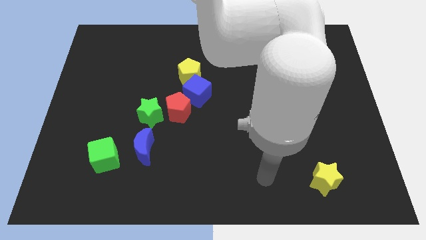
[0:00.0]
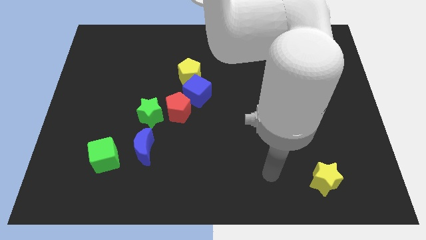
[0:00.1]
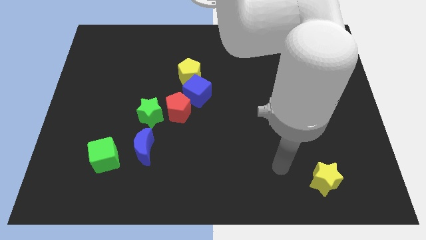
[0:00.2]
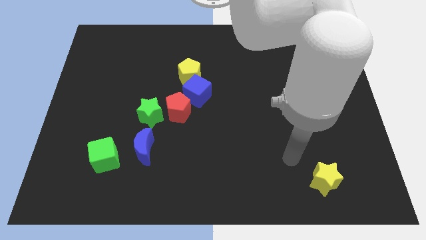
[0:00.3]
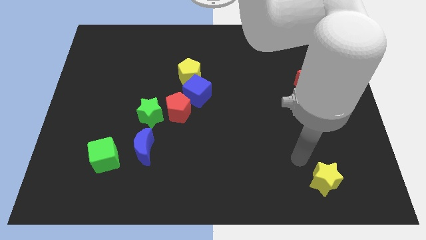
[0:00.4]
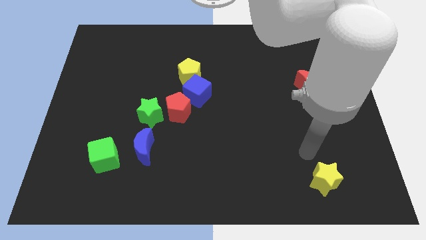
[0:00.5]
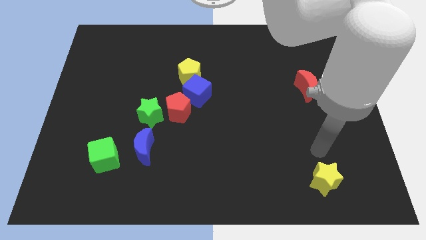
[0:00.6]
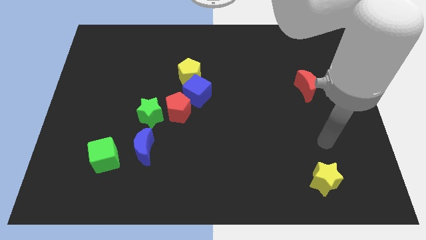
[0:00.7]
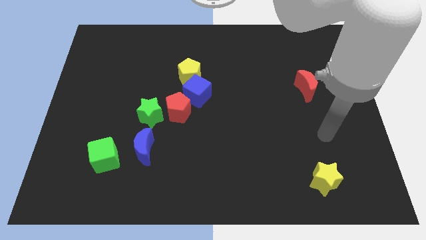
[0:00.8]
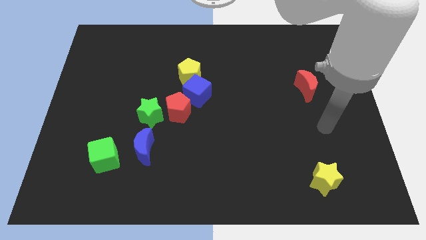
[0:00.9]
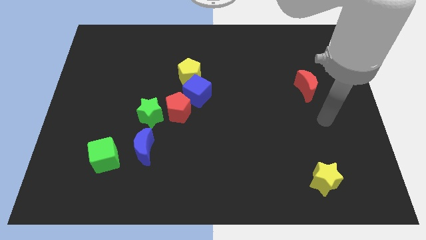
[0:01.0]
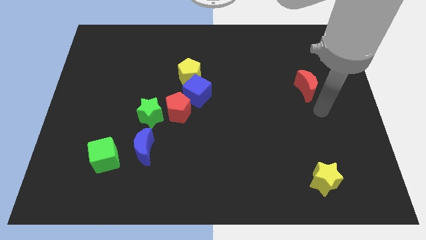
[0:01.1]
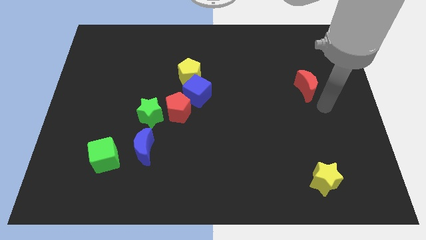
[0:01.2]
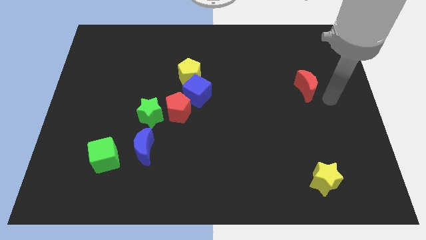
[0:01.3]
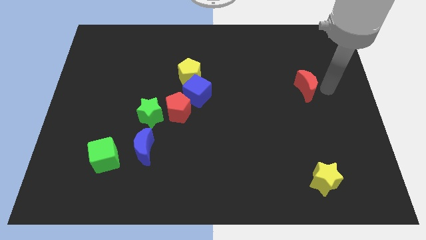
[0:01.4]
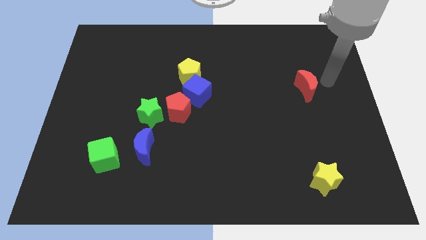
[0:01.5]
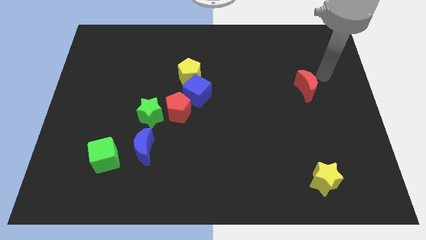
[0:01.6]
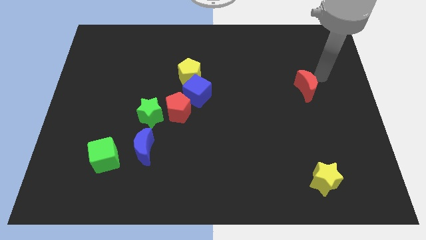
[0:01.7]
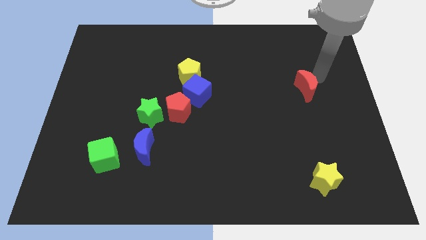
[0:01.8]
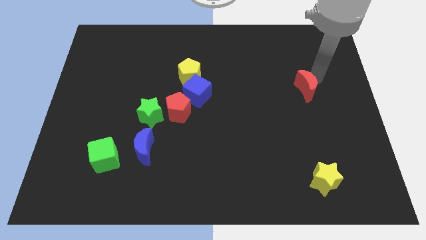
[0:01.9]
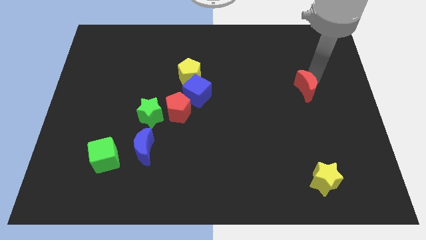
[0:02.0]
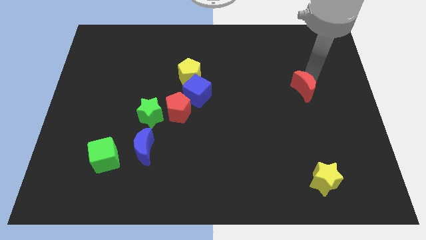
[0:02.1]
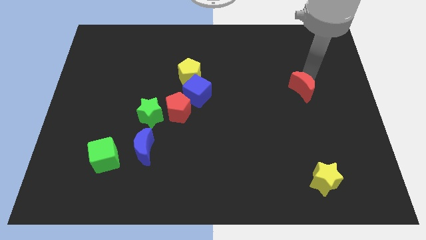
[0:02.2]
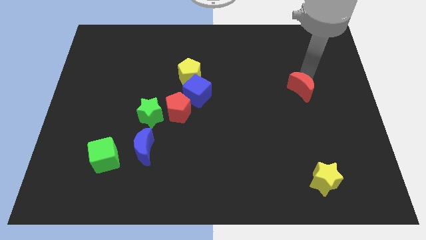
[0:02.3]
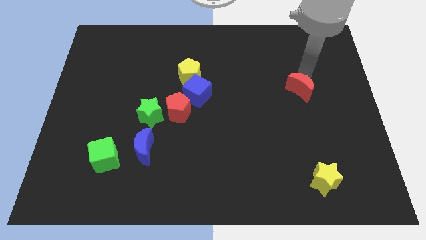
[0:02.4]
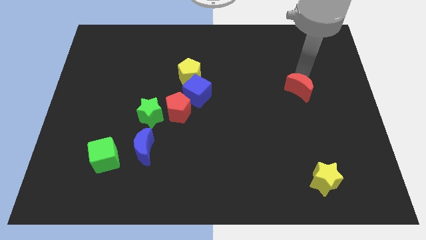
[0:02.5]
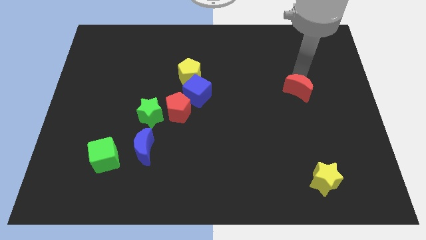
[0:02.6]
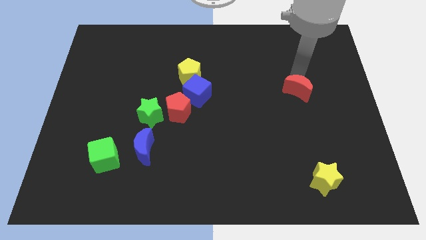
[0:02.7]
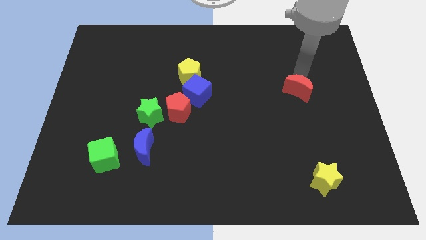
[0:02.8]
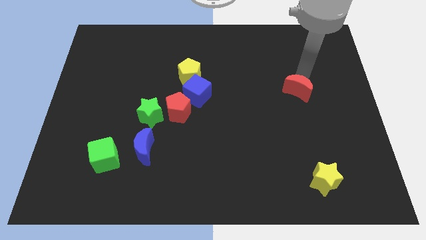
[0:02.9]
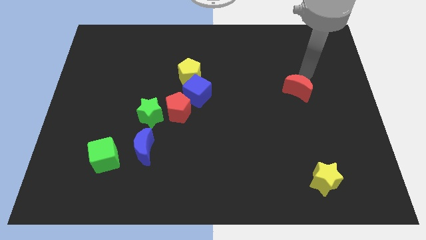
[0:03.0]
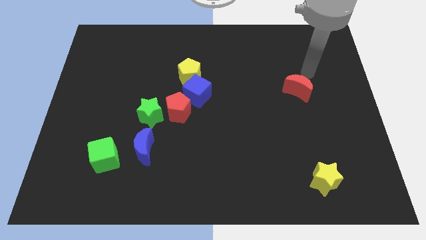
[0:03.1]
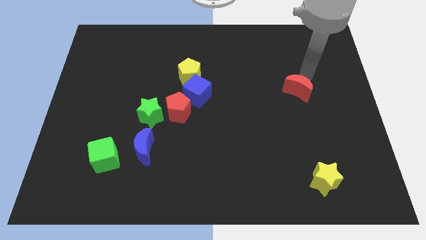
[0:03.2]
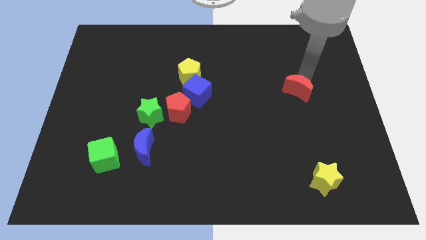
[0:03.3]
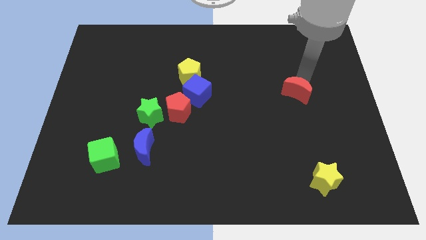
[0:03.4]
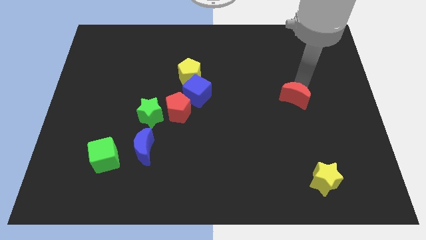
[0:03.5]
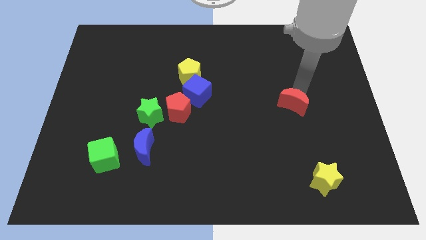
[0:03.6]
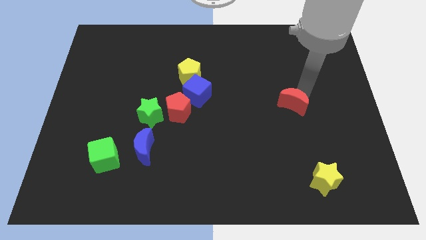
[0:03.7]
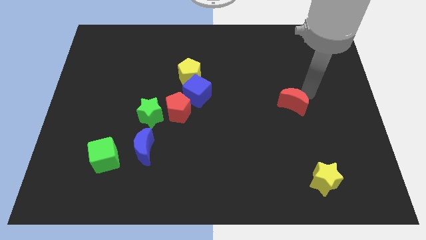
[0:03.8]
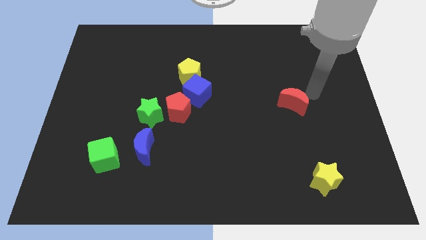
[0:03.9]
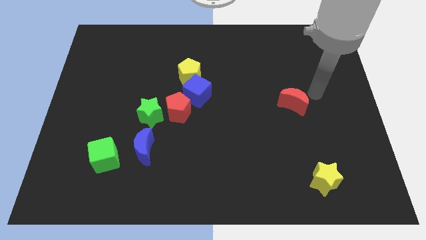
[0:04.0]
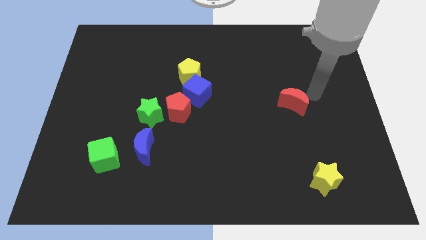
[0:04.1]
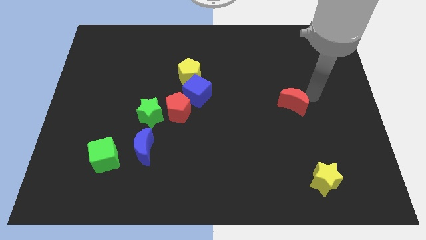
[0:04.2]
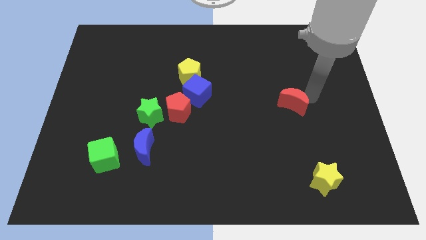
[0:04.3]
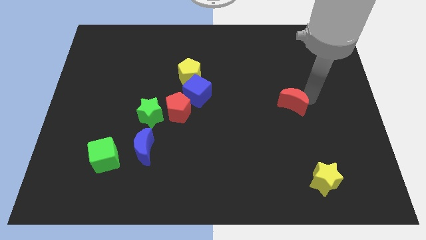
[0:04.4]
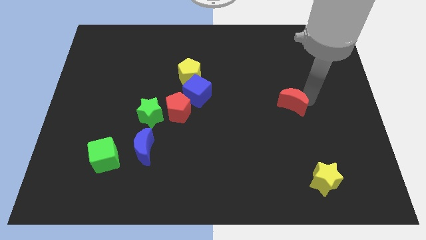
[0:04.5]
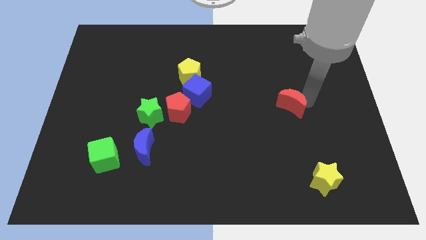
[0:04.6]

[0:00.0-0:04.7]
move the red moon diagonally downwards and left a little bit

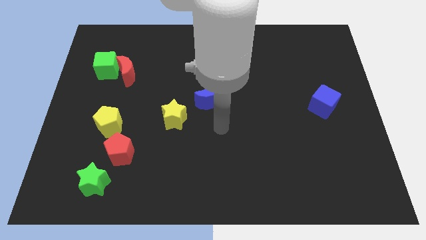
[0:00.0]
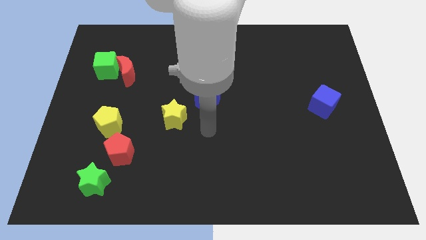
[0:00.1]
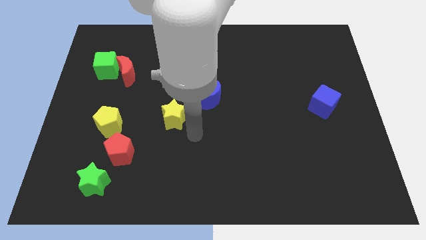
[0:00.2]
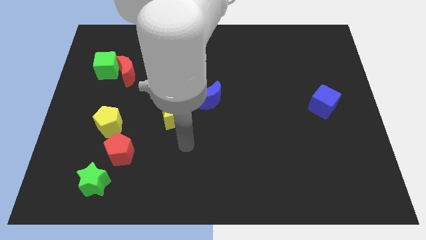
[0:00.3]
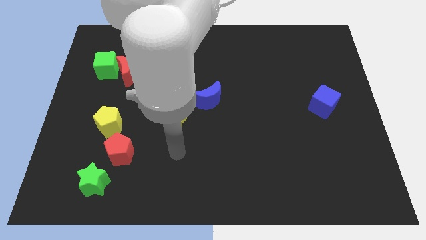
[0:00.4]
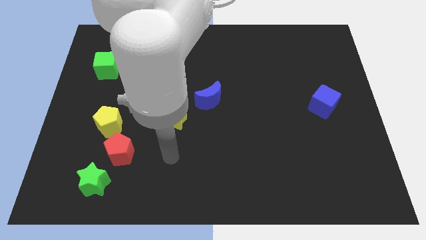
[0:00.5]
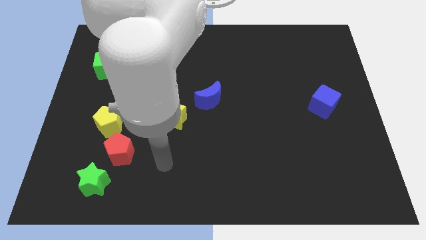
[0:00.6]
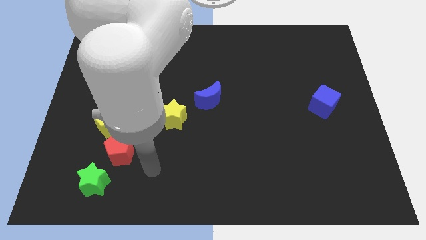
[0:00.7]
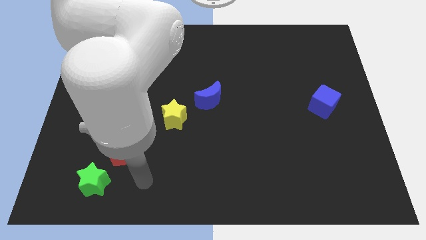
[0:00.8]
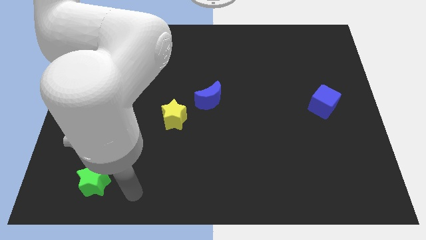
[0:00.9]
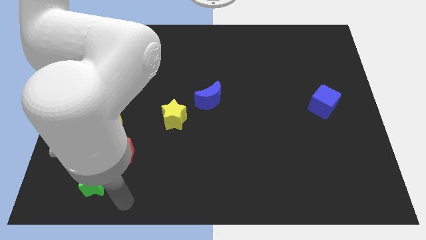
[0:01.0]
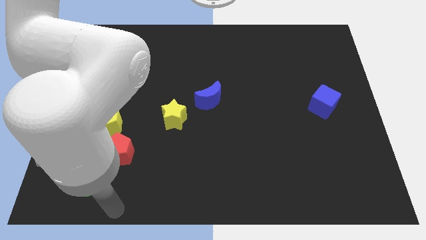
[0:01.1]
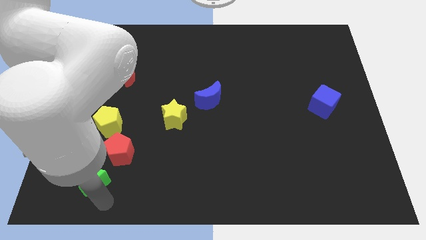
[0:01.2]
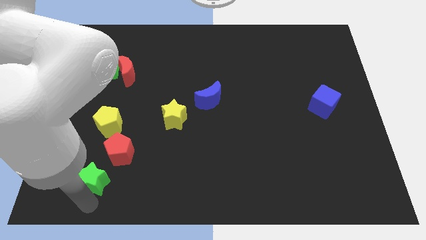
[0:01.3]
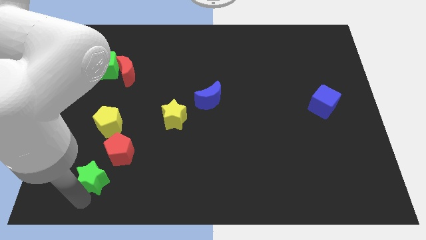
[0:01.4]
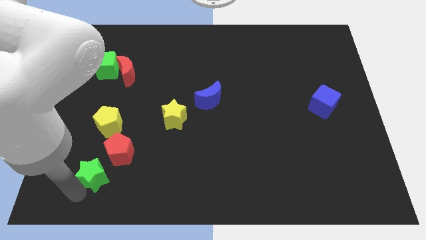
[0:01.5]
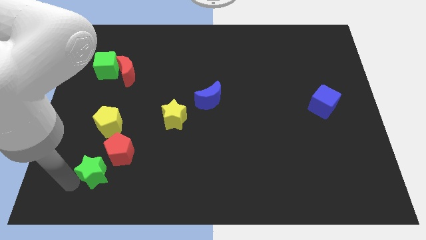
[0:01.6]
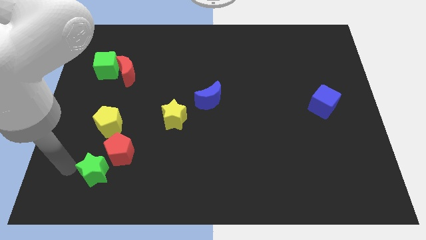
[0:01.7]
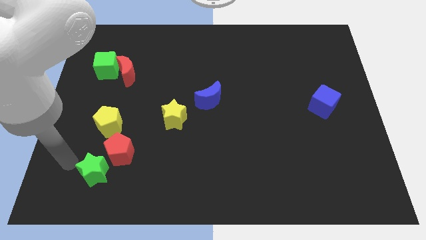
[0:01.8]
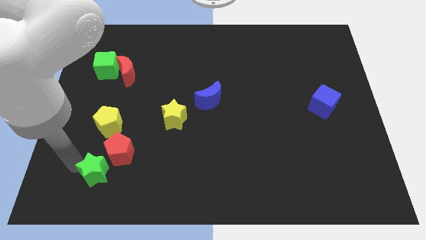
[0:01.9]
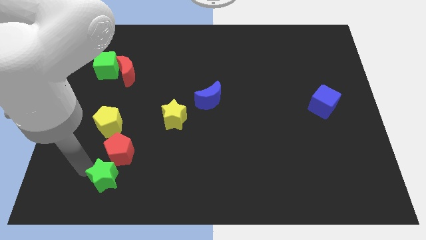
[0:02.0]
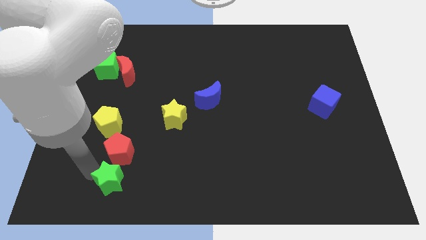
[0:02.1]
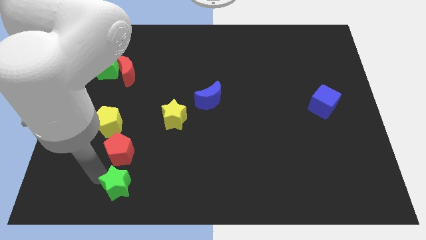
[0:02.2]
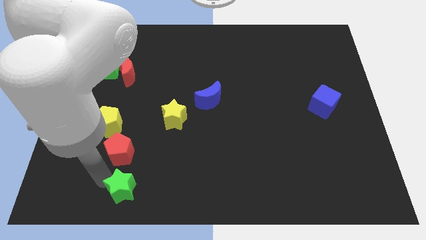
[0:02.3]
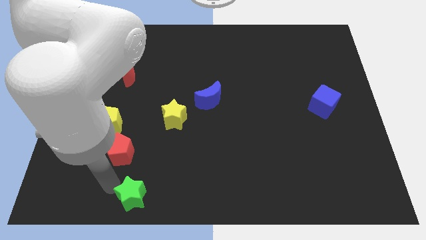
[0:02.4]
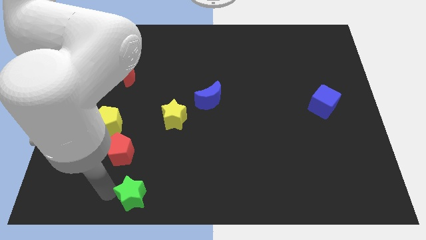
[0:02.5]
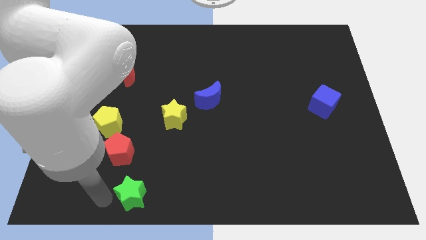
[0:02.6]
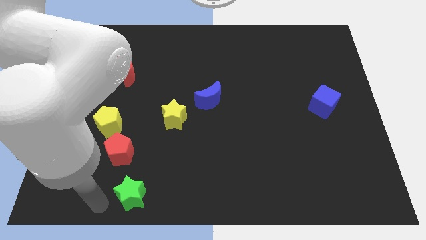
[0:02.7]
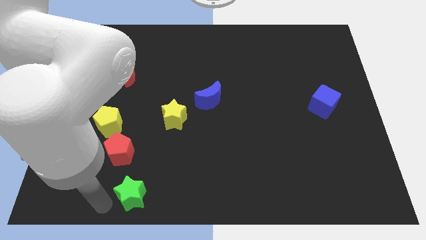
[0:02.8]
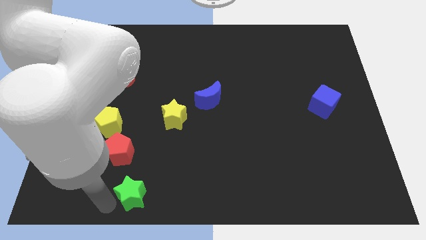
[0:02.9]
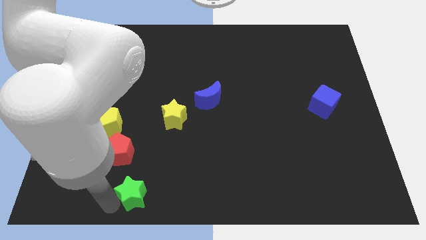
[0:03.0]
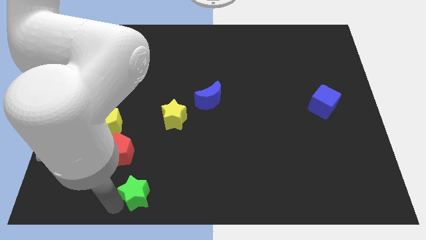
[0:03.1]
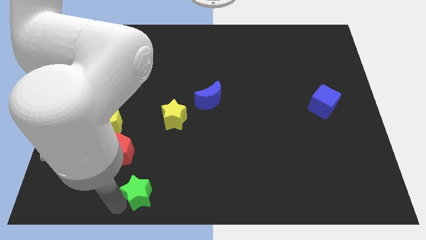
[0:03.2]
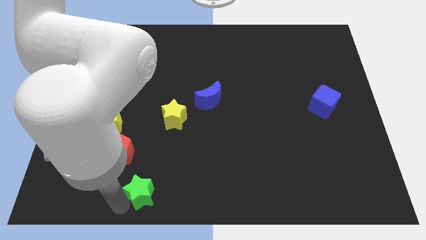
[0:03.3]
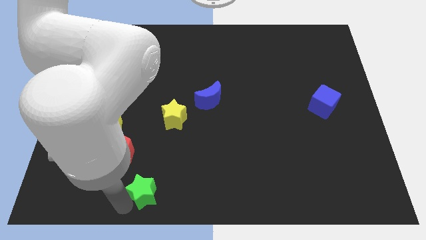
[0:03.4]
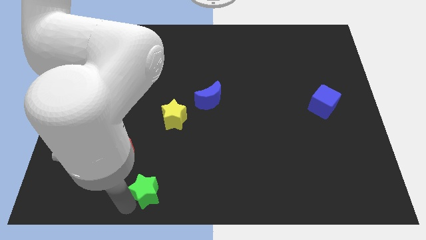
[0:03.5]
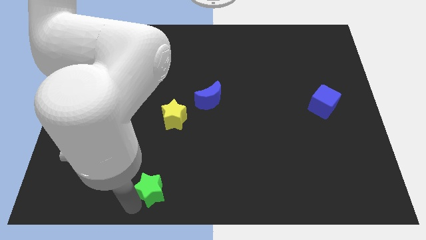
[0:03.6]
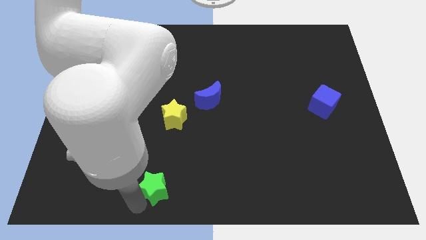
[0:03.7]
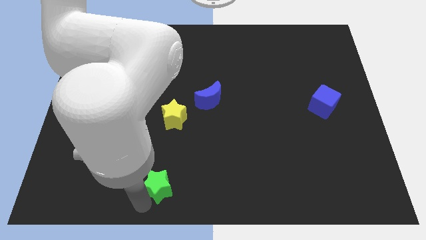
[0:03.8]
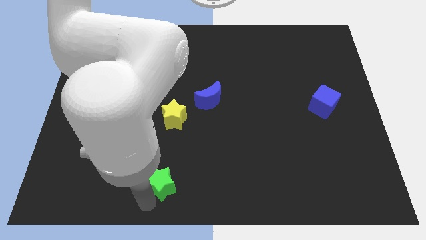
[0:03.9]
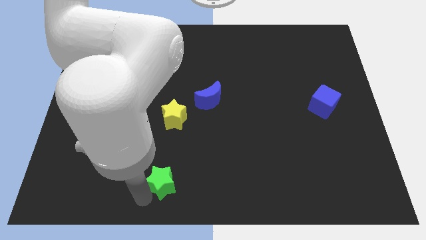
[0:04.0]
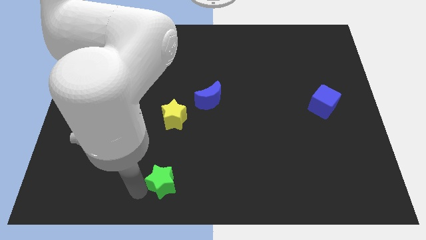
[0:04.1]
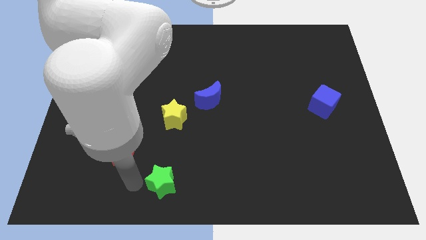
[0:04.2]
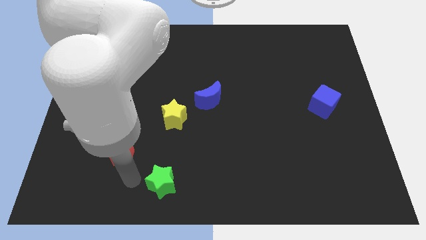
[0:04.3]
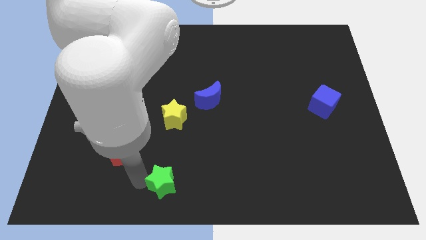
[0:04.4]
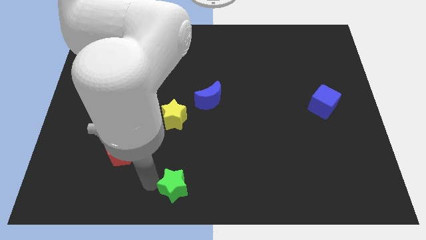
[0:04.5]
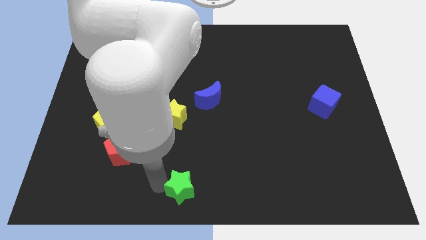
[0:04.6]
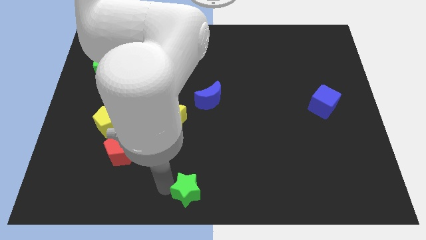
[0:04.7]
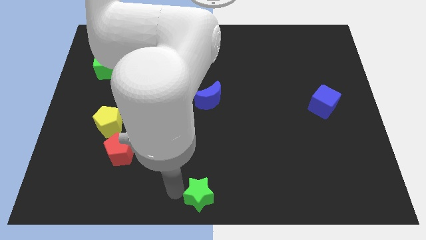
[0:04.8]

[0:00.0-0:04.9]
slide the green star right
